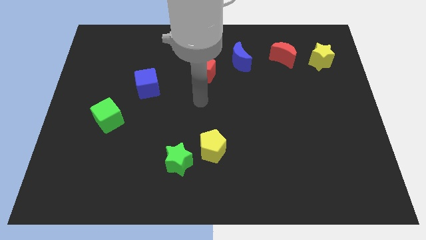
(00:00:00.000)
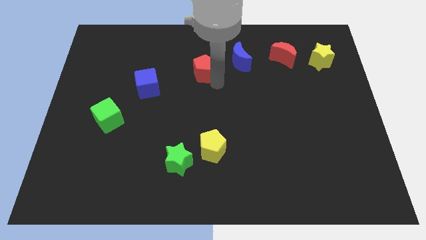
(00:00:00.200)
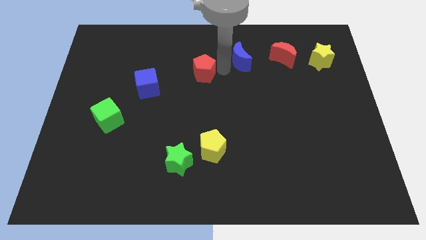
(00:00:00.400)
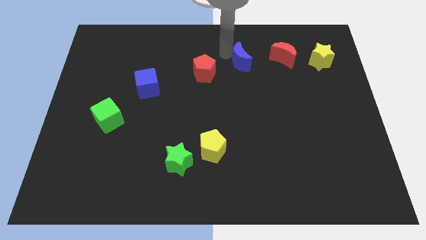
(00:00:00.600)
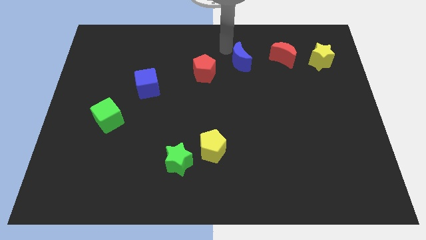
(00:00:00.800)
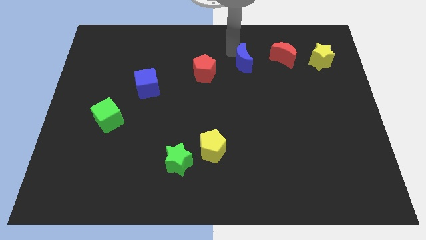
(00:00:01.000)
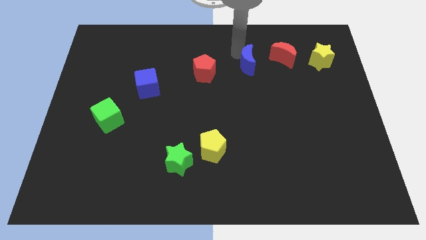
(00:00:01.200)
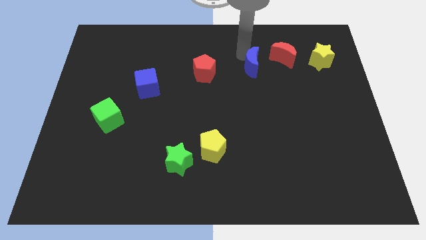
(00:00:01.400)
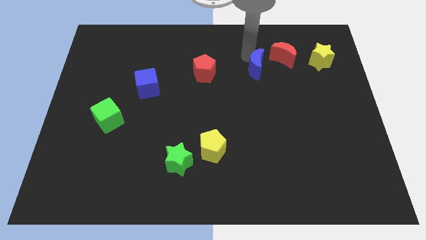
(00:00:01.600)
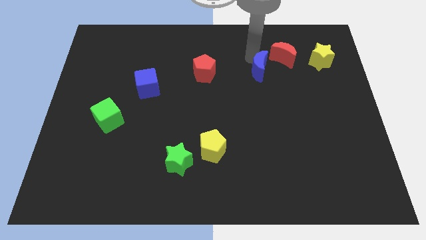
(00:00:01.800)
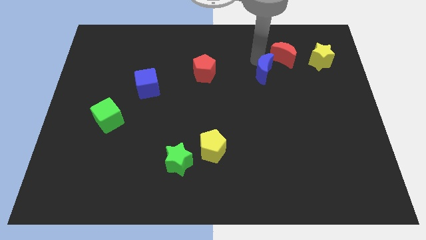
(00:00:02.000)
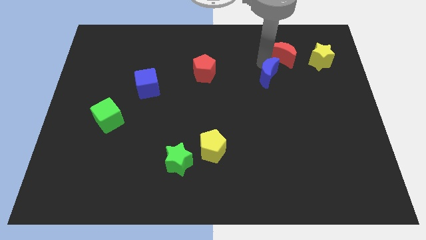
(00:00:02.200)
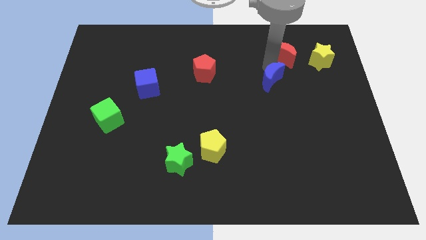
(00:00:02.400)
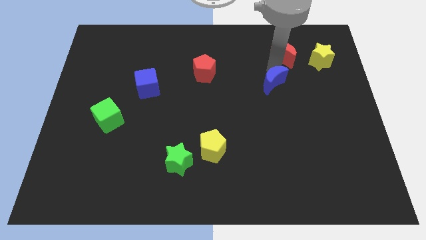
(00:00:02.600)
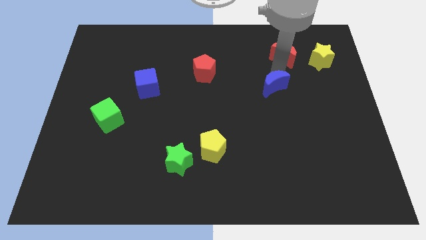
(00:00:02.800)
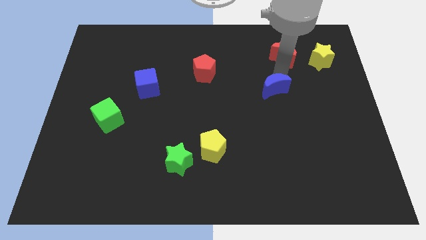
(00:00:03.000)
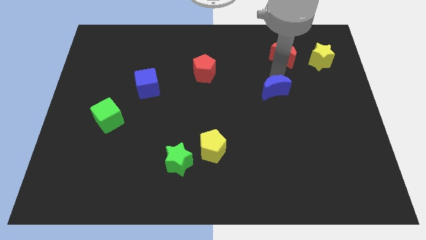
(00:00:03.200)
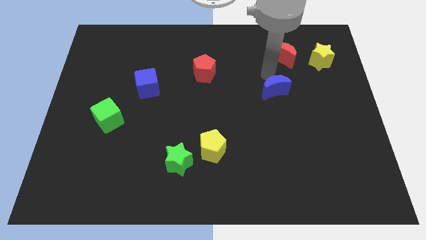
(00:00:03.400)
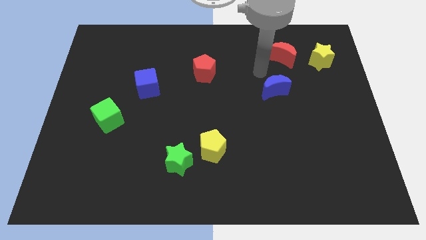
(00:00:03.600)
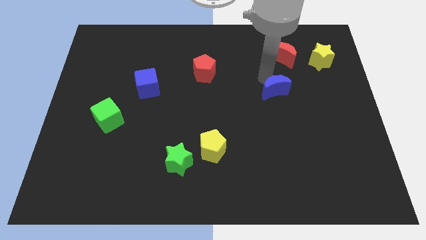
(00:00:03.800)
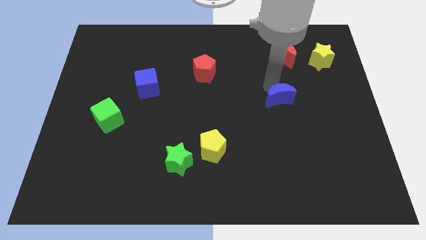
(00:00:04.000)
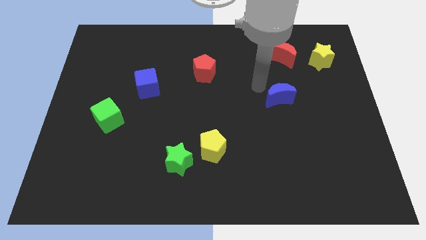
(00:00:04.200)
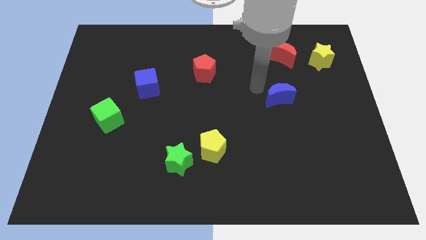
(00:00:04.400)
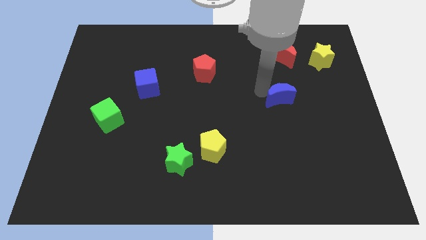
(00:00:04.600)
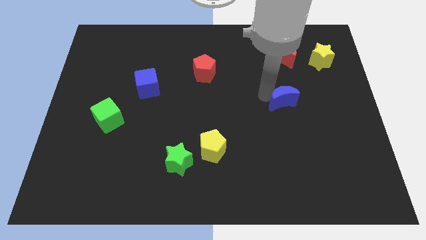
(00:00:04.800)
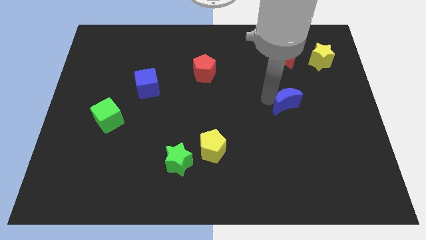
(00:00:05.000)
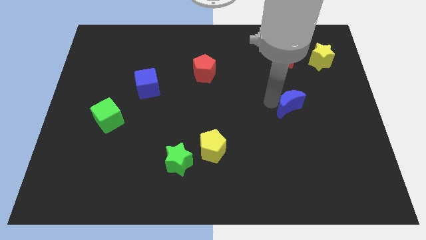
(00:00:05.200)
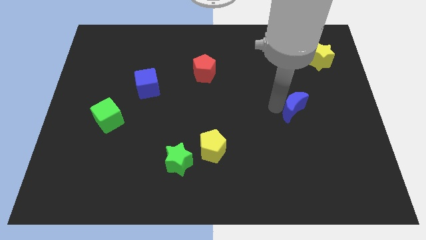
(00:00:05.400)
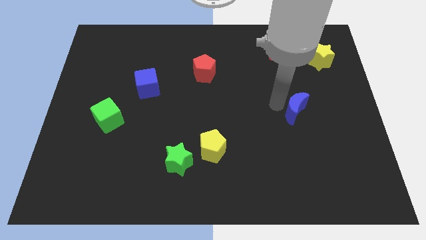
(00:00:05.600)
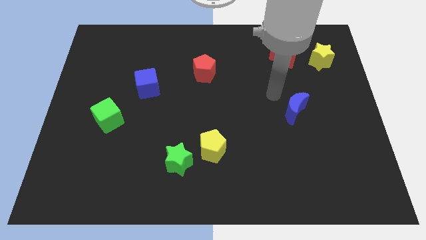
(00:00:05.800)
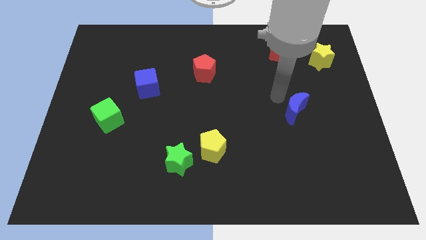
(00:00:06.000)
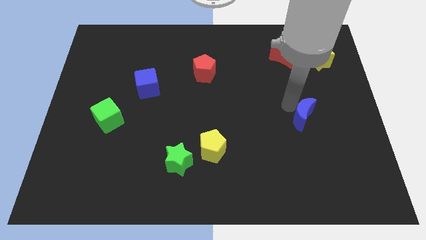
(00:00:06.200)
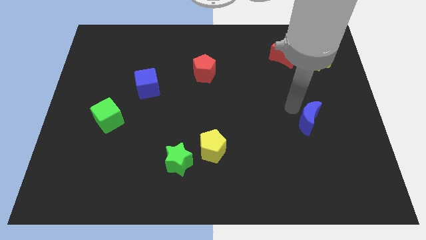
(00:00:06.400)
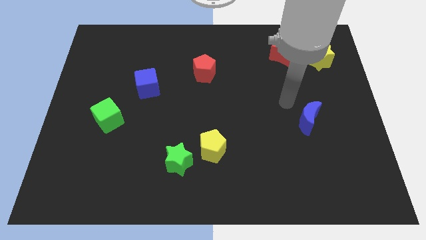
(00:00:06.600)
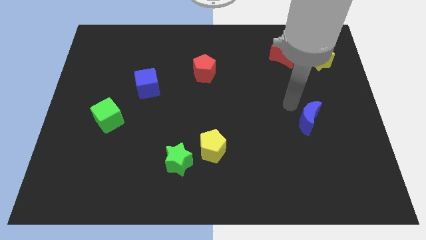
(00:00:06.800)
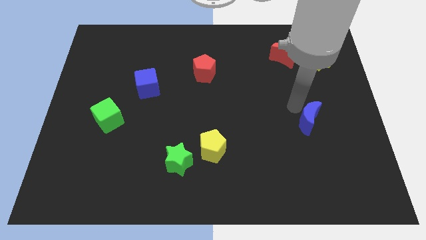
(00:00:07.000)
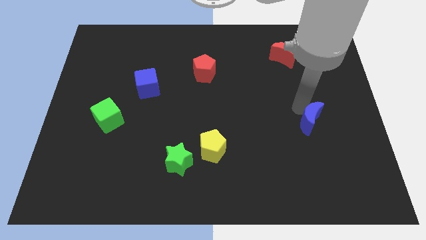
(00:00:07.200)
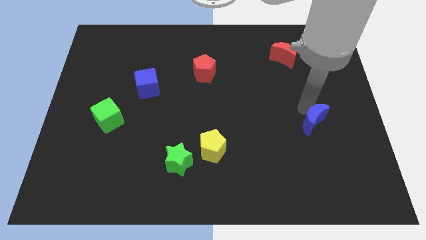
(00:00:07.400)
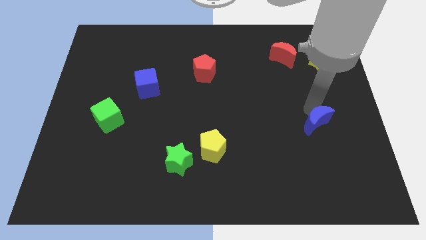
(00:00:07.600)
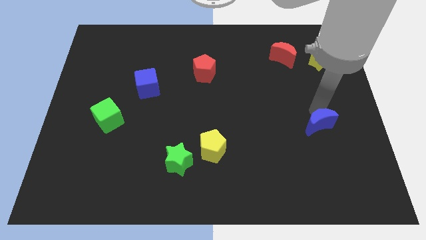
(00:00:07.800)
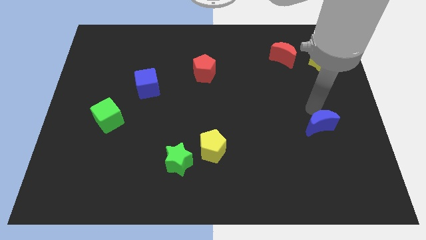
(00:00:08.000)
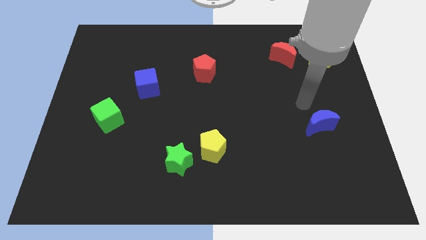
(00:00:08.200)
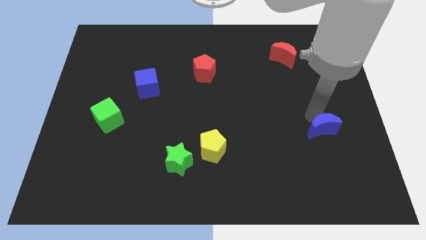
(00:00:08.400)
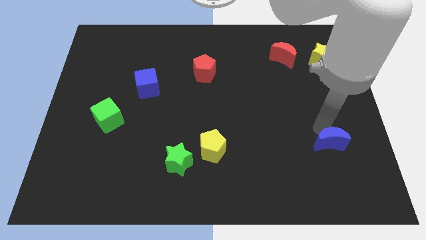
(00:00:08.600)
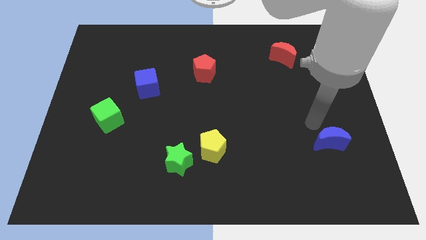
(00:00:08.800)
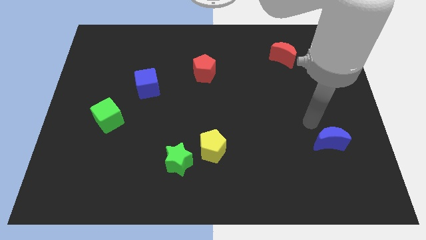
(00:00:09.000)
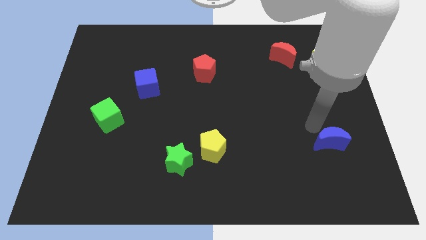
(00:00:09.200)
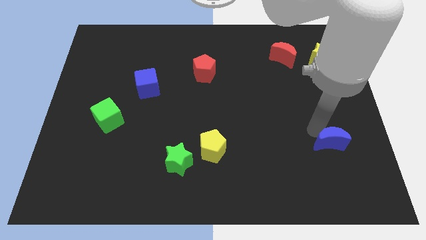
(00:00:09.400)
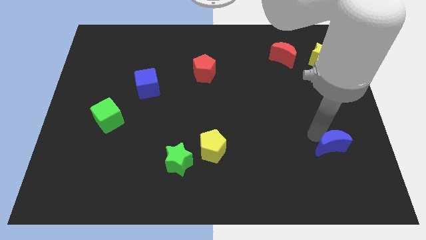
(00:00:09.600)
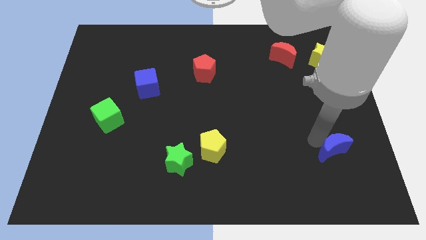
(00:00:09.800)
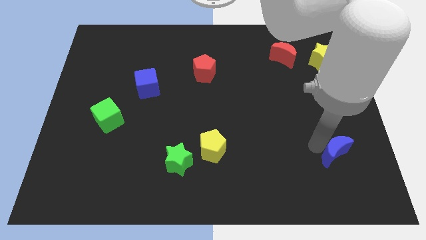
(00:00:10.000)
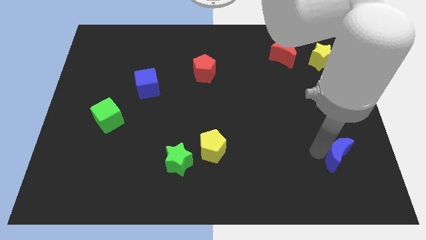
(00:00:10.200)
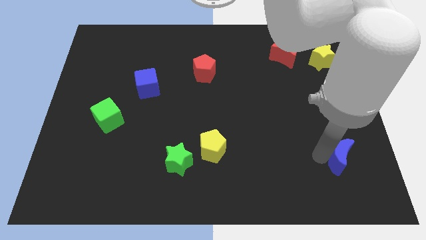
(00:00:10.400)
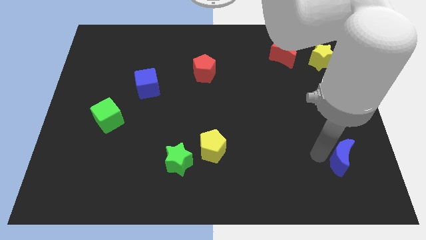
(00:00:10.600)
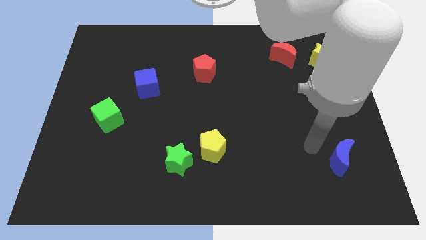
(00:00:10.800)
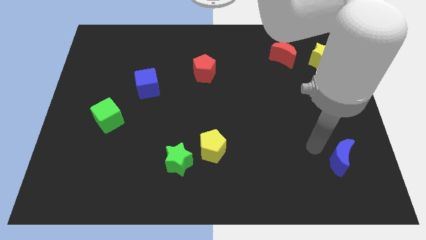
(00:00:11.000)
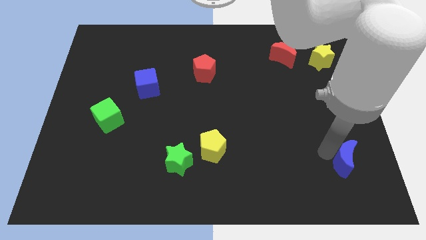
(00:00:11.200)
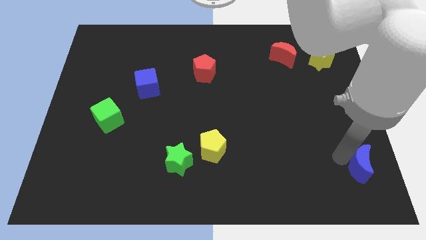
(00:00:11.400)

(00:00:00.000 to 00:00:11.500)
put the blue moon to the bottom right
